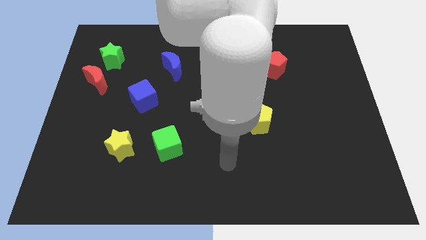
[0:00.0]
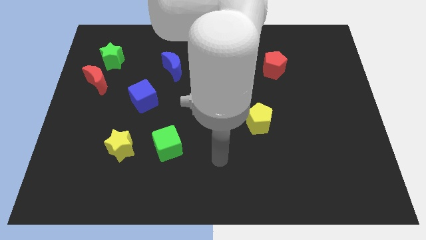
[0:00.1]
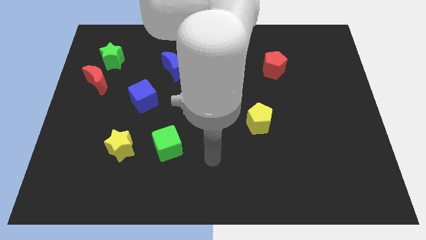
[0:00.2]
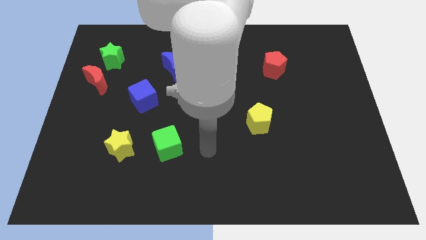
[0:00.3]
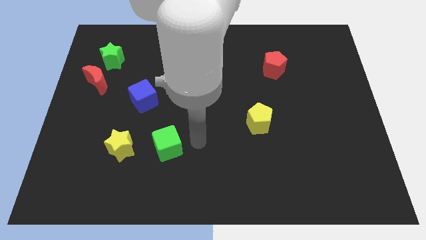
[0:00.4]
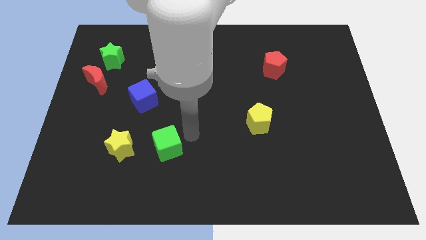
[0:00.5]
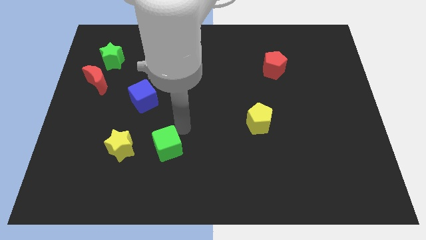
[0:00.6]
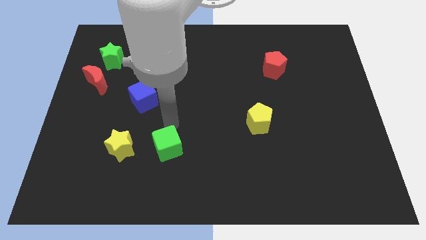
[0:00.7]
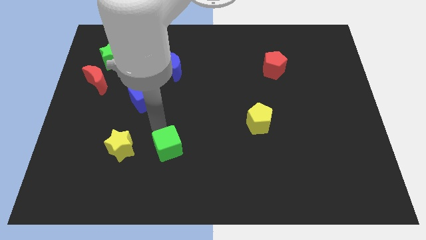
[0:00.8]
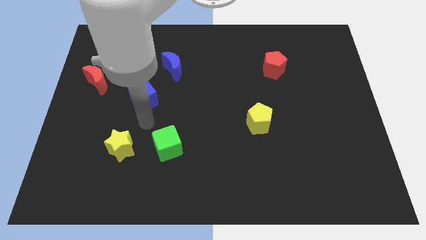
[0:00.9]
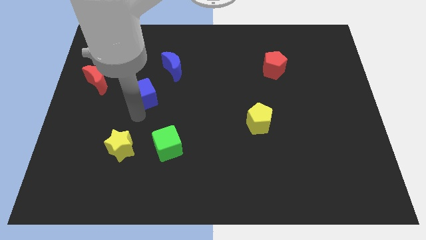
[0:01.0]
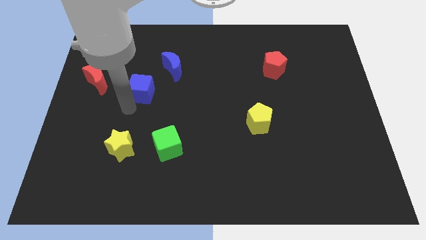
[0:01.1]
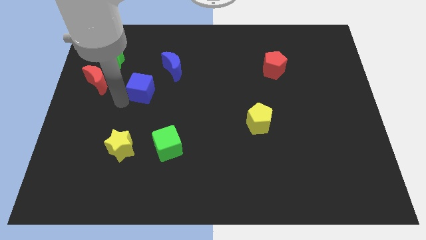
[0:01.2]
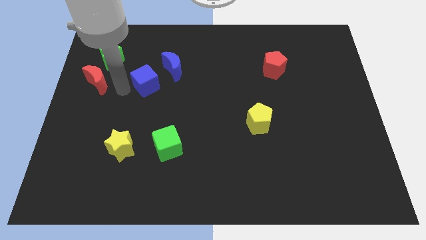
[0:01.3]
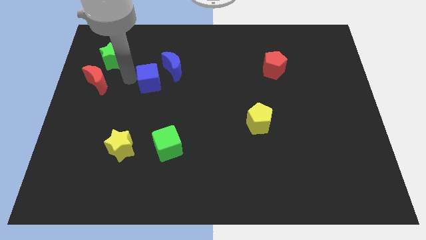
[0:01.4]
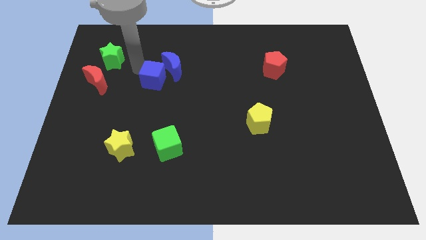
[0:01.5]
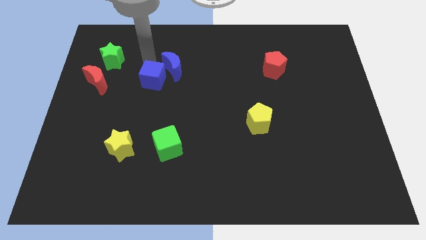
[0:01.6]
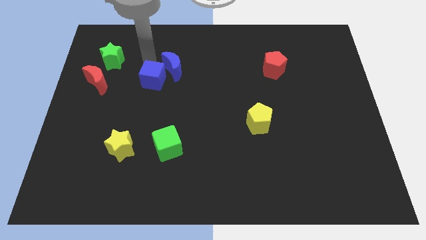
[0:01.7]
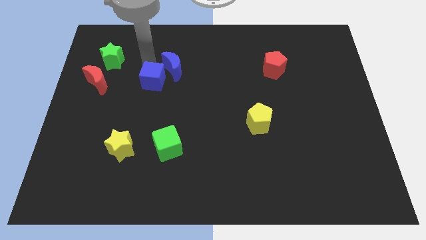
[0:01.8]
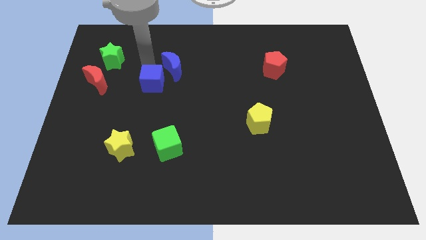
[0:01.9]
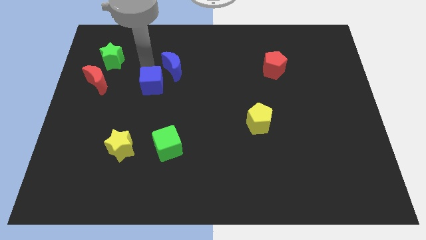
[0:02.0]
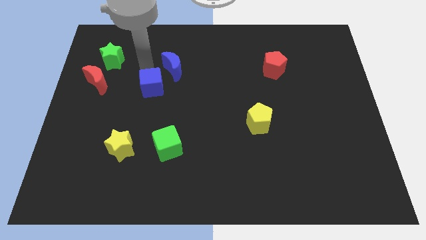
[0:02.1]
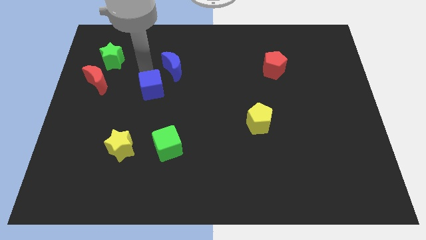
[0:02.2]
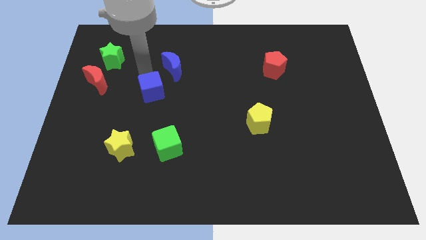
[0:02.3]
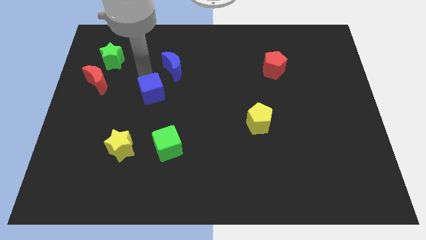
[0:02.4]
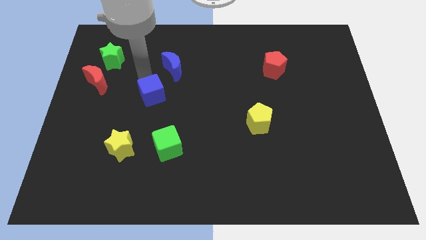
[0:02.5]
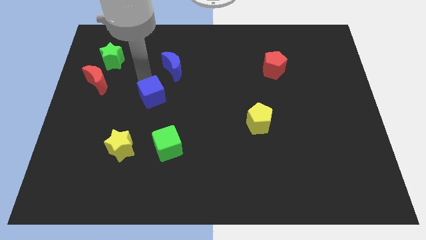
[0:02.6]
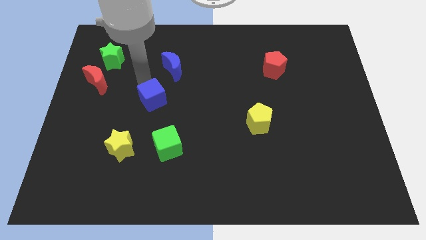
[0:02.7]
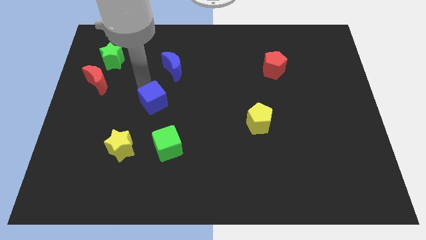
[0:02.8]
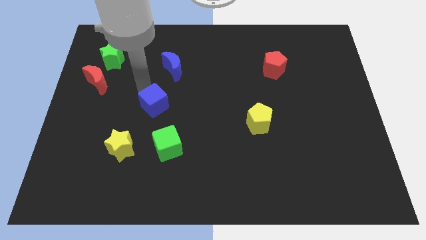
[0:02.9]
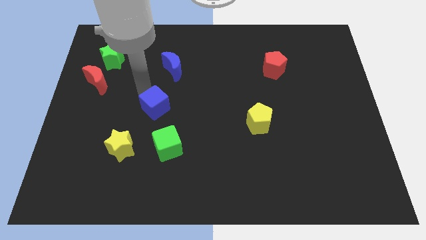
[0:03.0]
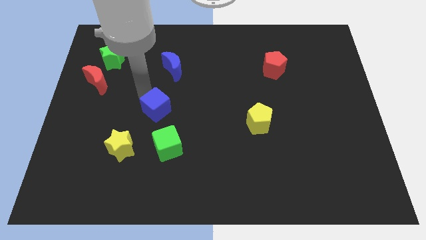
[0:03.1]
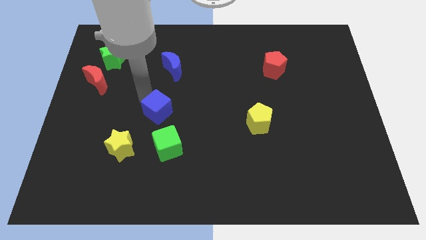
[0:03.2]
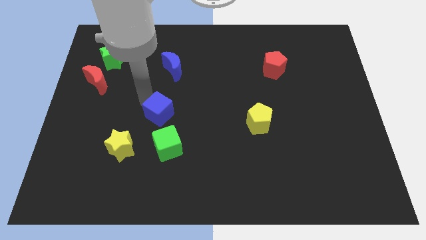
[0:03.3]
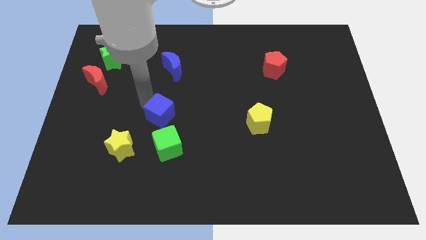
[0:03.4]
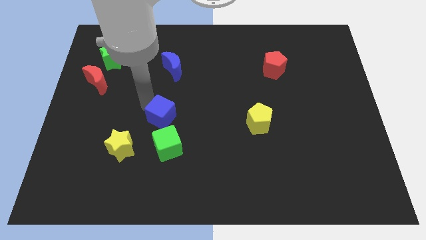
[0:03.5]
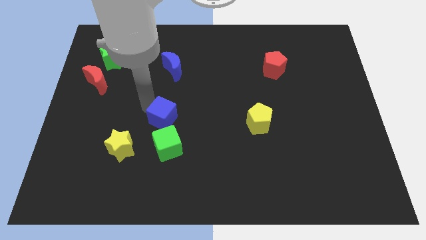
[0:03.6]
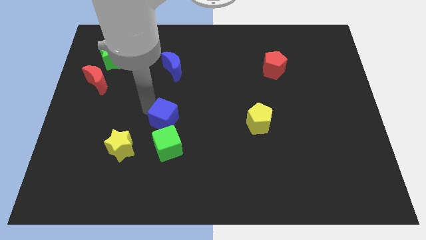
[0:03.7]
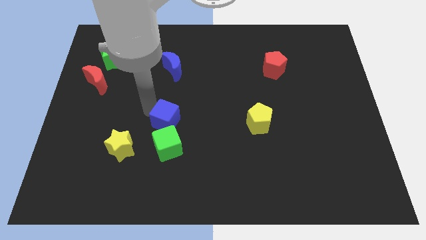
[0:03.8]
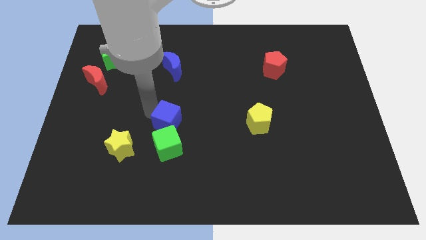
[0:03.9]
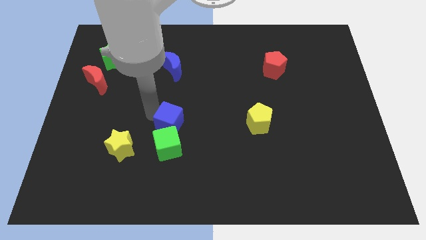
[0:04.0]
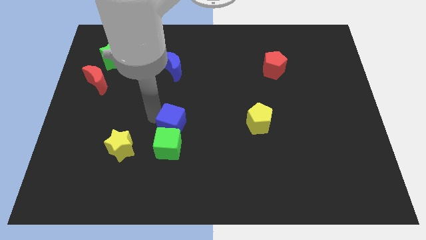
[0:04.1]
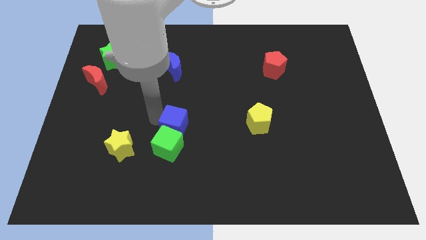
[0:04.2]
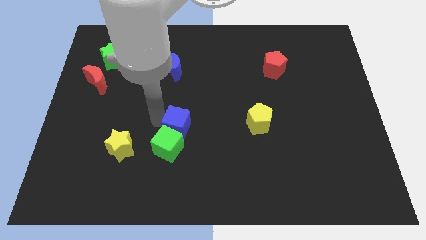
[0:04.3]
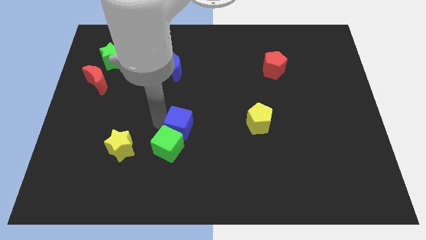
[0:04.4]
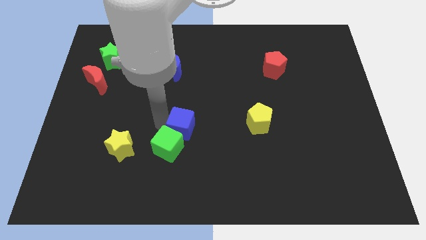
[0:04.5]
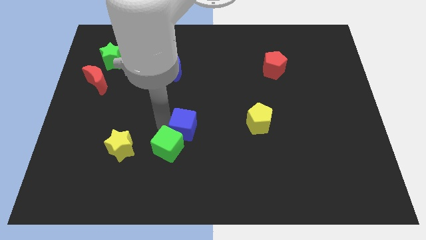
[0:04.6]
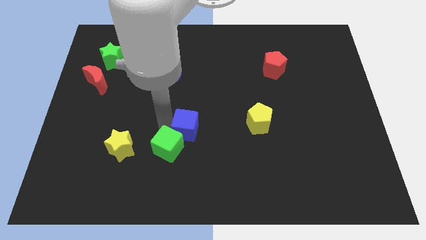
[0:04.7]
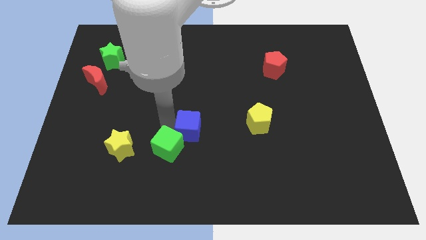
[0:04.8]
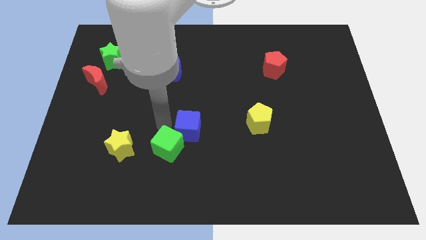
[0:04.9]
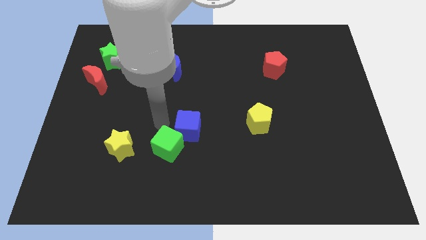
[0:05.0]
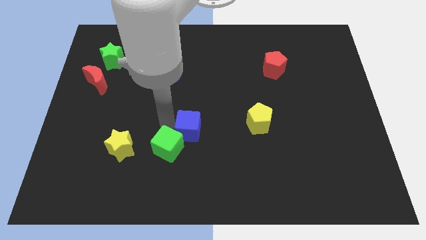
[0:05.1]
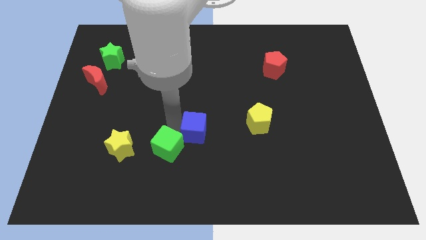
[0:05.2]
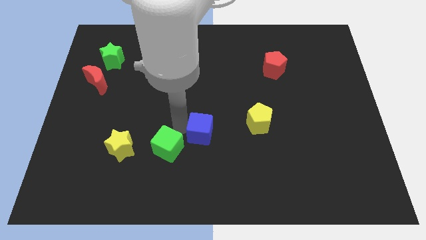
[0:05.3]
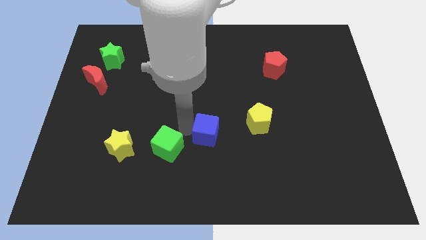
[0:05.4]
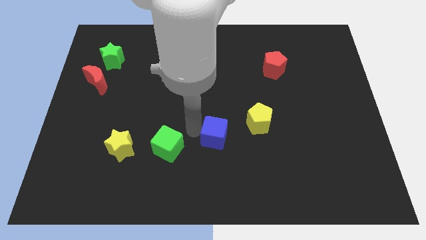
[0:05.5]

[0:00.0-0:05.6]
slide the blue cube diagonally down and to the left of the yellow pentagon

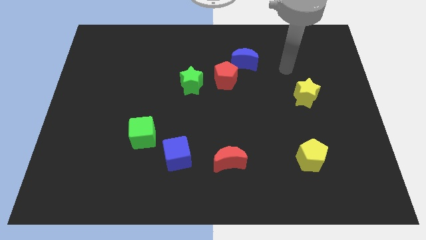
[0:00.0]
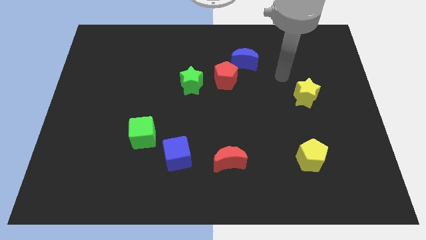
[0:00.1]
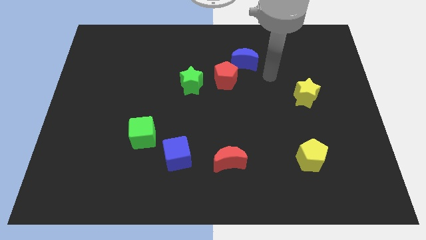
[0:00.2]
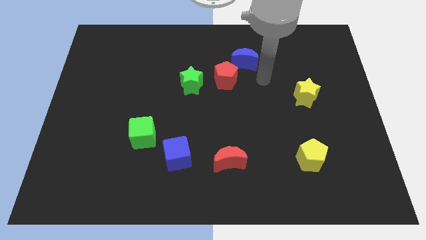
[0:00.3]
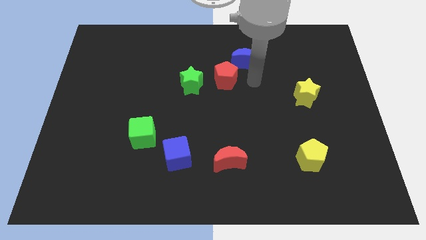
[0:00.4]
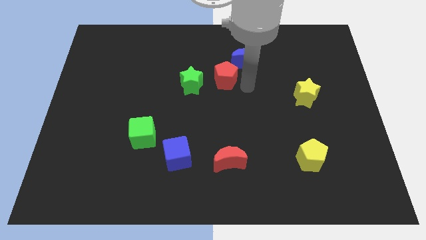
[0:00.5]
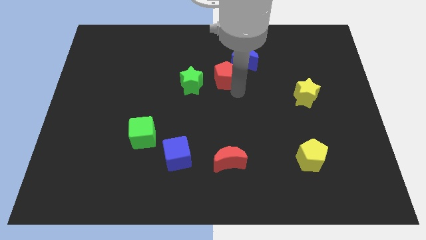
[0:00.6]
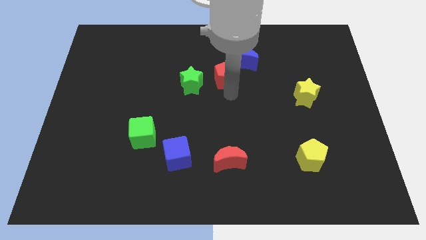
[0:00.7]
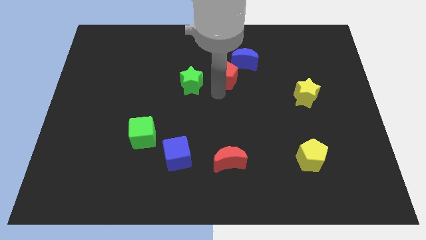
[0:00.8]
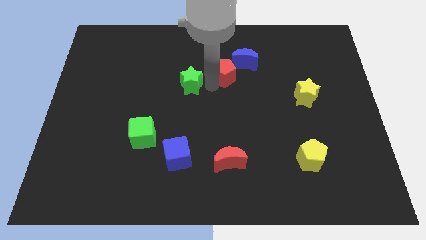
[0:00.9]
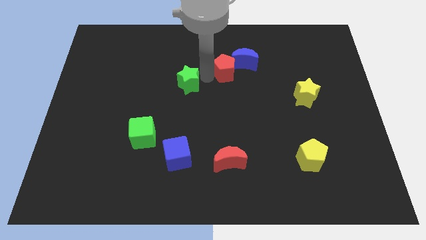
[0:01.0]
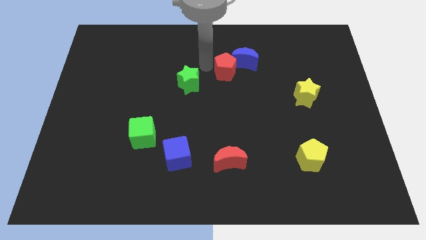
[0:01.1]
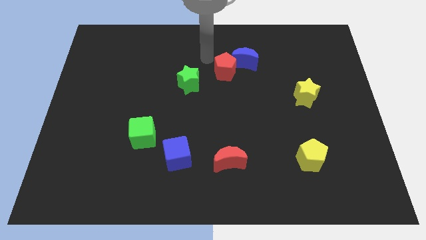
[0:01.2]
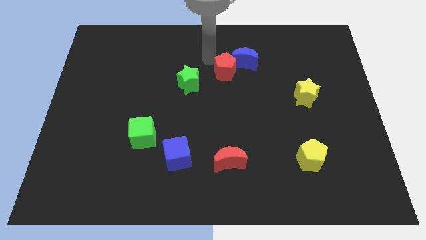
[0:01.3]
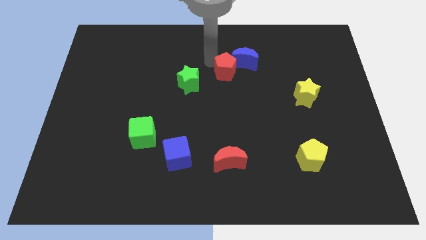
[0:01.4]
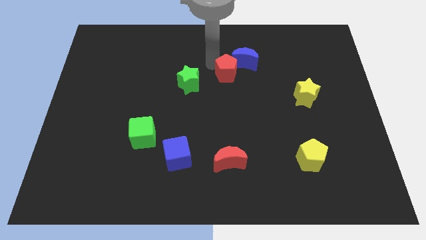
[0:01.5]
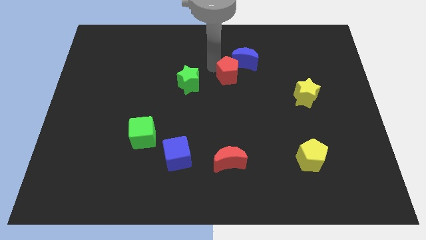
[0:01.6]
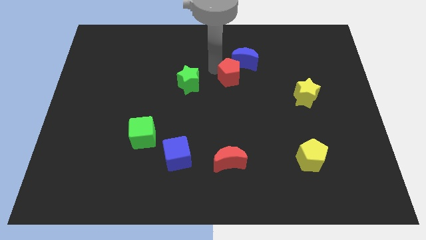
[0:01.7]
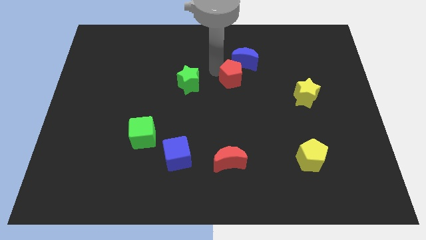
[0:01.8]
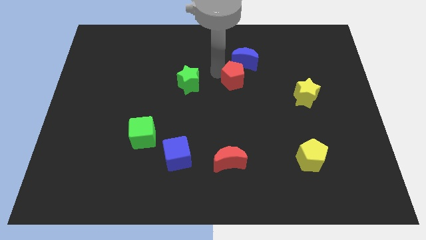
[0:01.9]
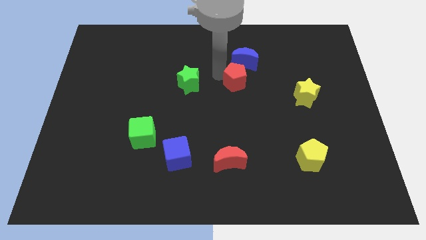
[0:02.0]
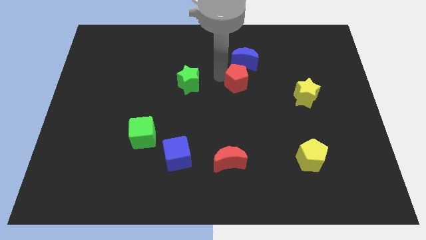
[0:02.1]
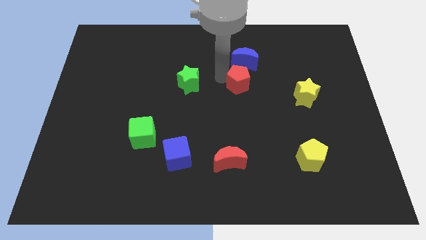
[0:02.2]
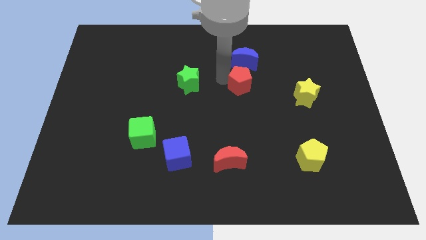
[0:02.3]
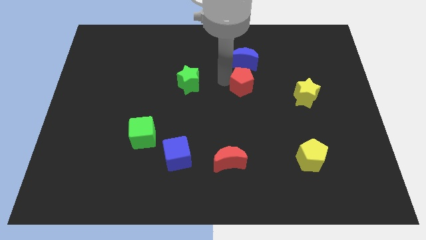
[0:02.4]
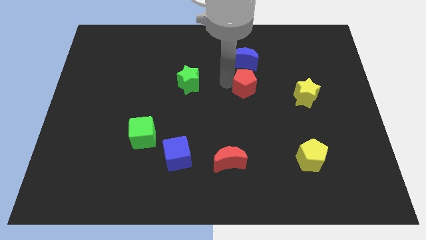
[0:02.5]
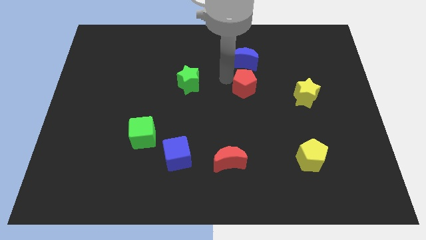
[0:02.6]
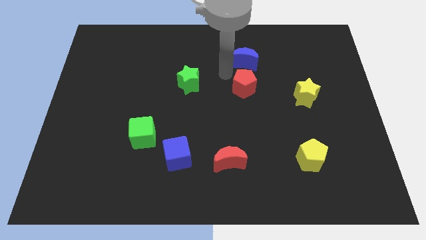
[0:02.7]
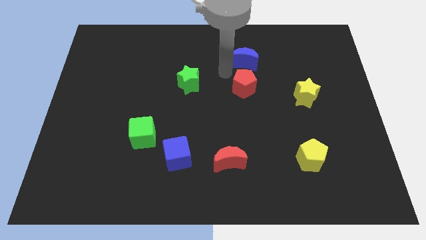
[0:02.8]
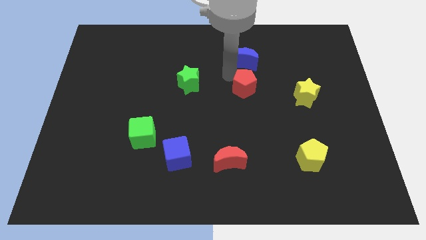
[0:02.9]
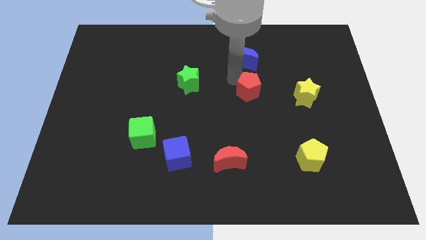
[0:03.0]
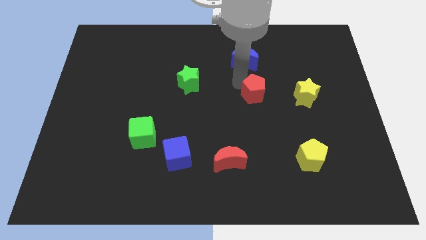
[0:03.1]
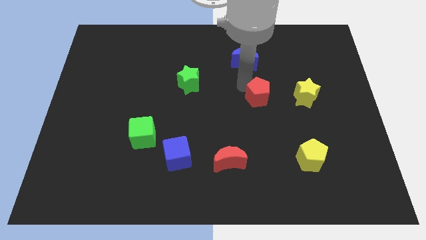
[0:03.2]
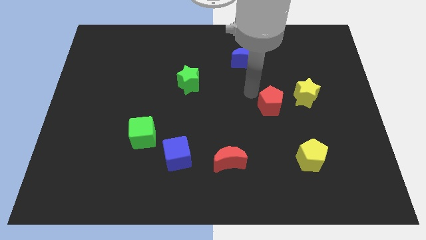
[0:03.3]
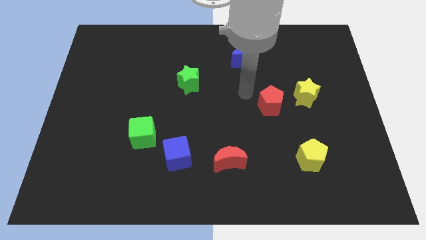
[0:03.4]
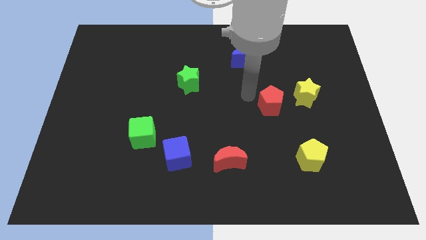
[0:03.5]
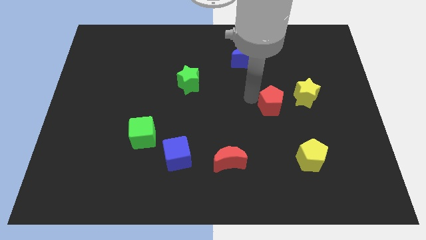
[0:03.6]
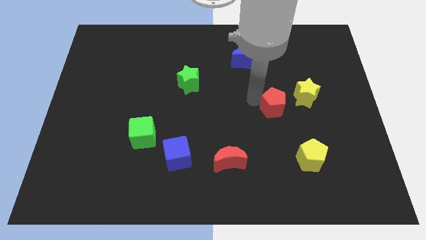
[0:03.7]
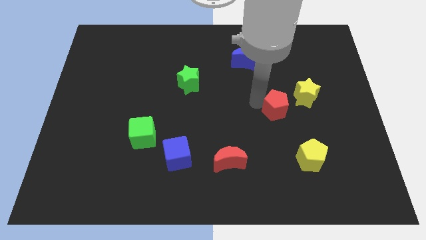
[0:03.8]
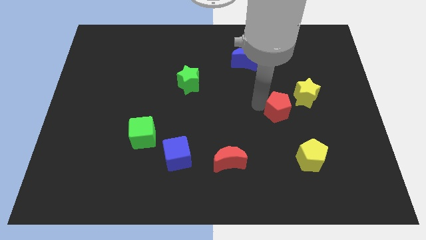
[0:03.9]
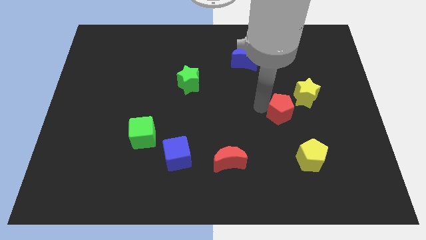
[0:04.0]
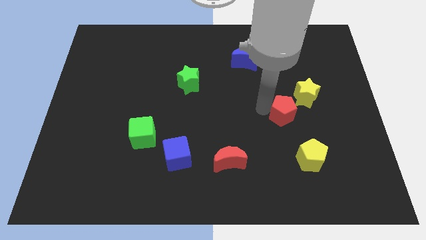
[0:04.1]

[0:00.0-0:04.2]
move the red pentagon to the top side of the yellow pentagon
